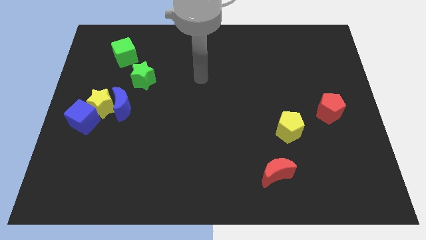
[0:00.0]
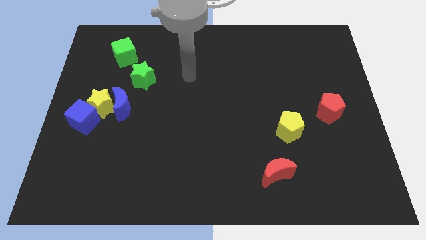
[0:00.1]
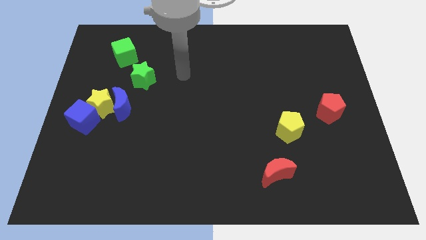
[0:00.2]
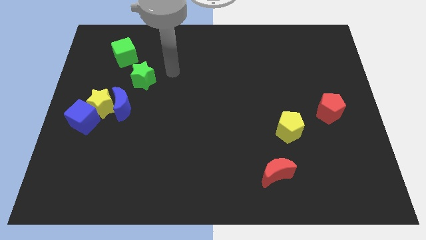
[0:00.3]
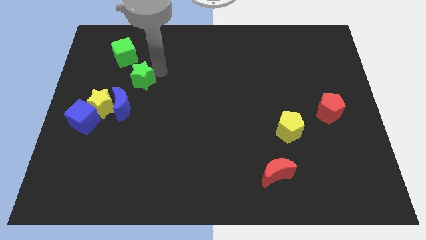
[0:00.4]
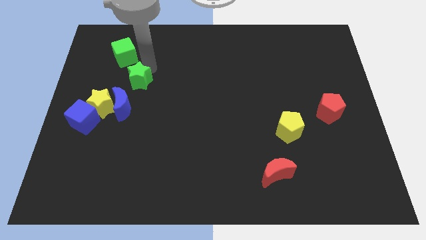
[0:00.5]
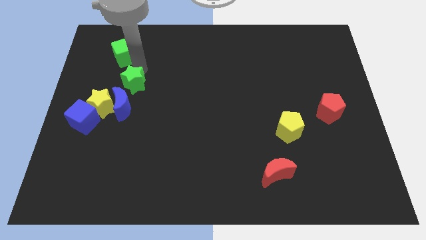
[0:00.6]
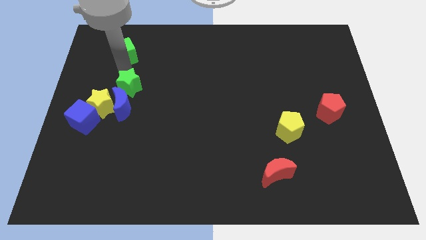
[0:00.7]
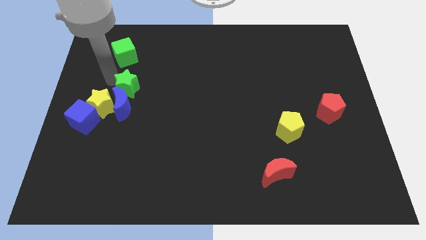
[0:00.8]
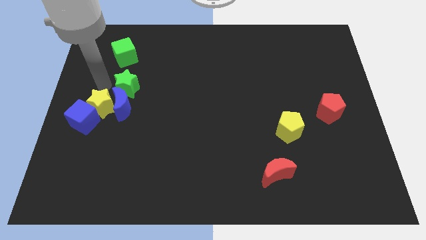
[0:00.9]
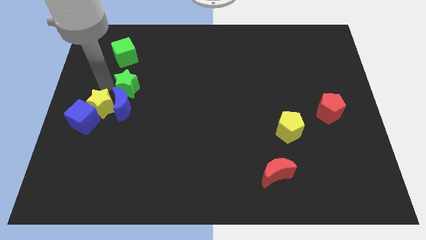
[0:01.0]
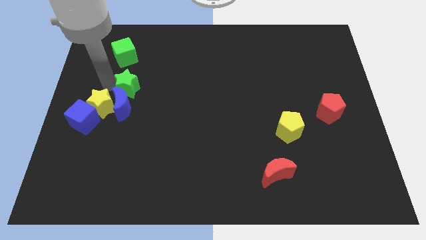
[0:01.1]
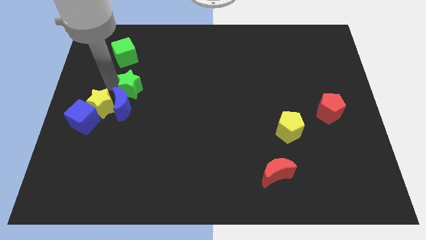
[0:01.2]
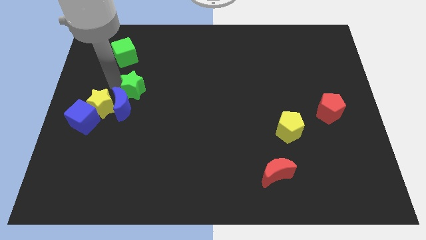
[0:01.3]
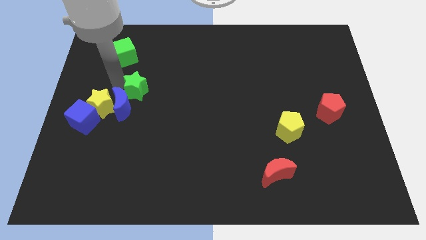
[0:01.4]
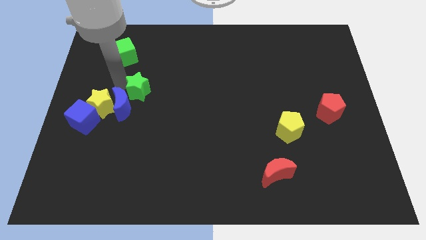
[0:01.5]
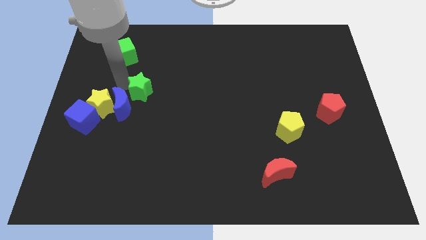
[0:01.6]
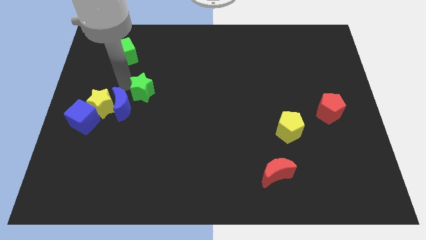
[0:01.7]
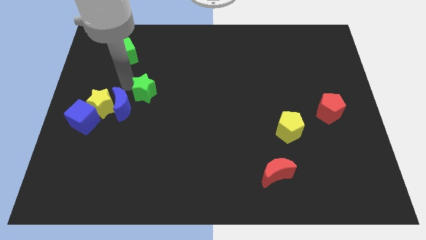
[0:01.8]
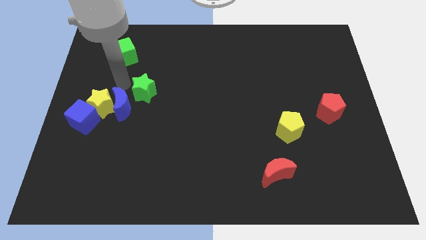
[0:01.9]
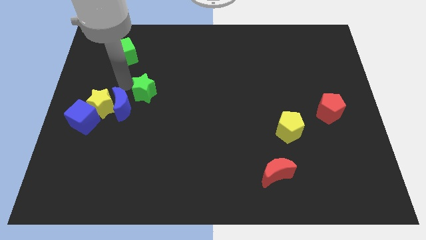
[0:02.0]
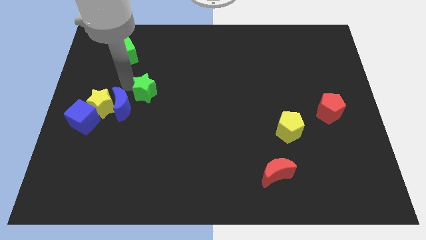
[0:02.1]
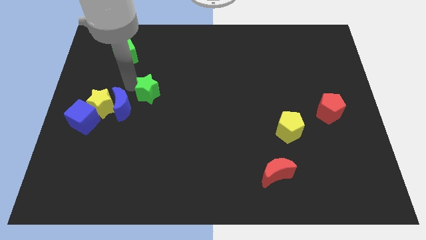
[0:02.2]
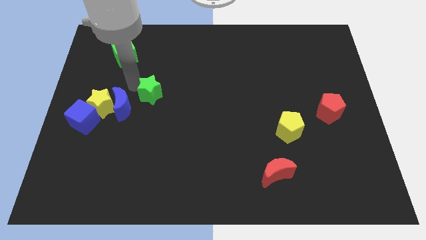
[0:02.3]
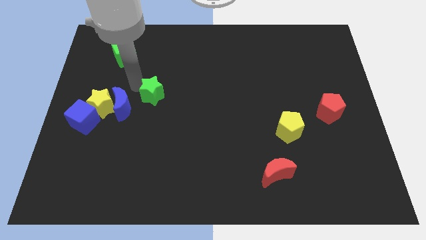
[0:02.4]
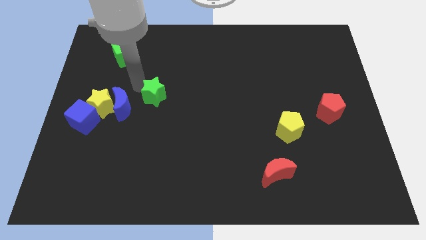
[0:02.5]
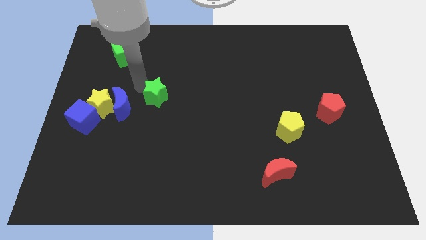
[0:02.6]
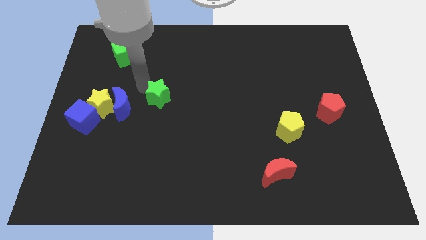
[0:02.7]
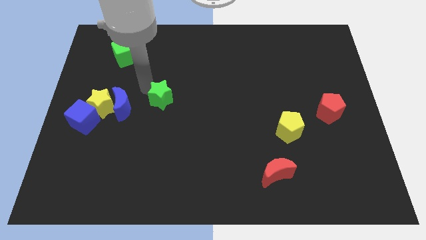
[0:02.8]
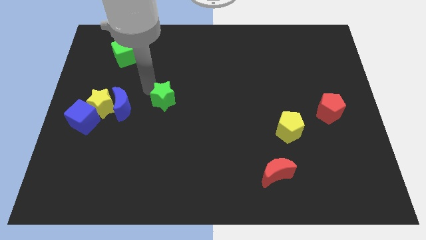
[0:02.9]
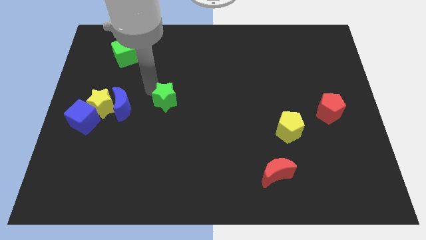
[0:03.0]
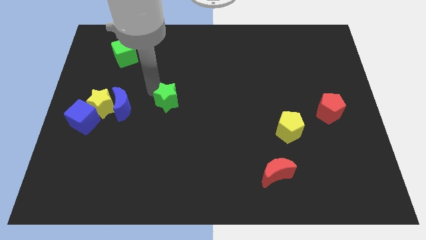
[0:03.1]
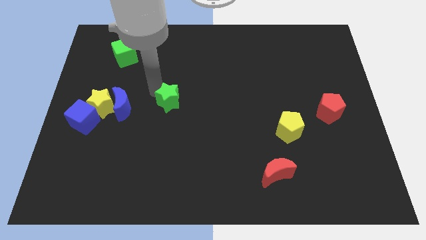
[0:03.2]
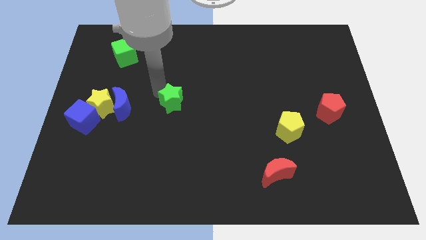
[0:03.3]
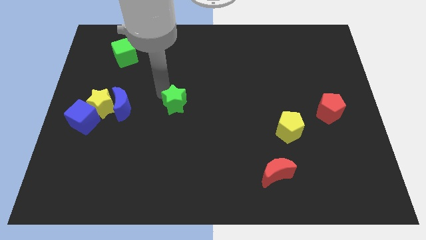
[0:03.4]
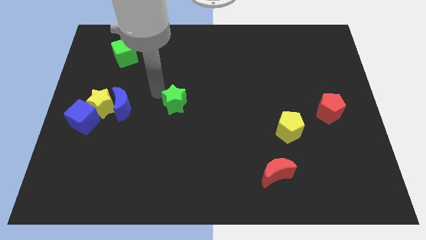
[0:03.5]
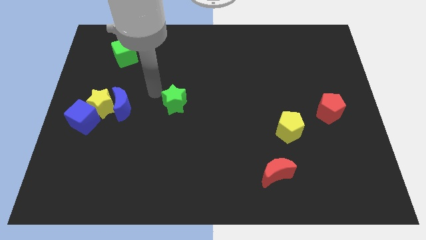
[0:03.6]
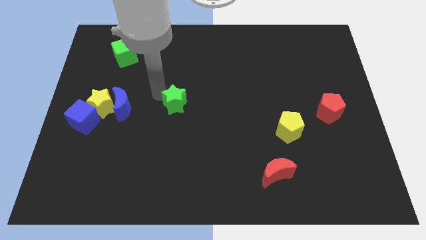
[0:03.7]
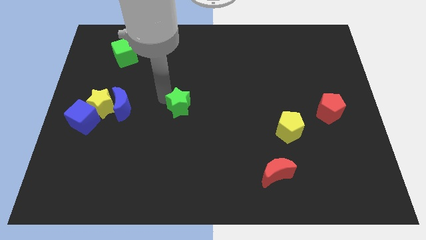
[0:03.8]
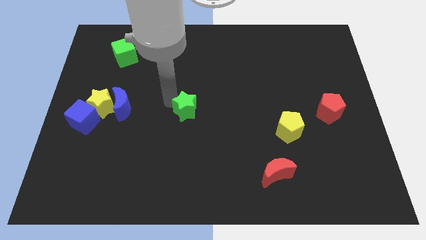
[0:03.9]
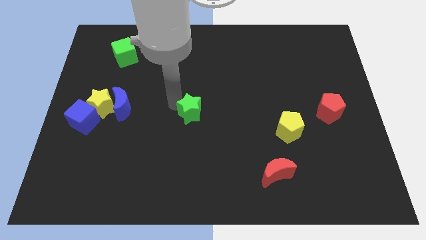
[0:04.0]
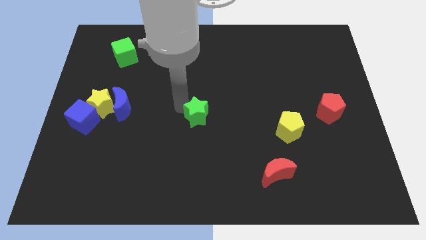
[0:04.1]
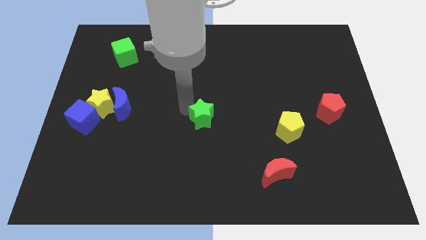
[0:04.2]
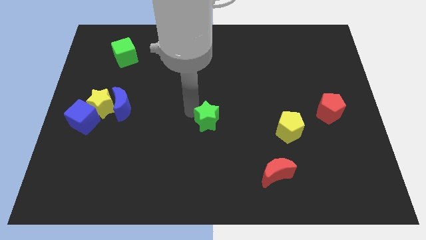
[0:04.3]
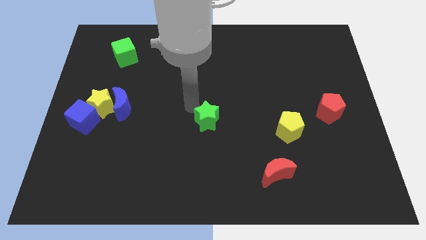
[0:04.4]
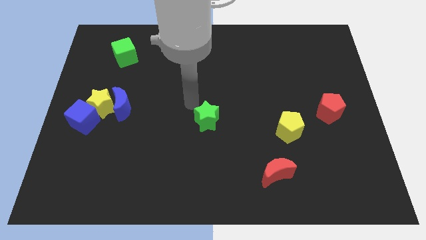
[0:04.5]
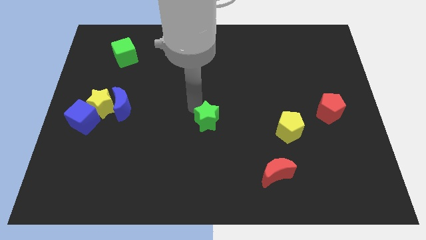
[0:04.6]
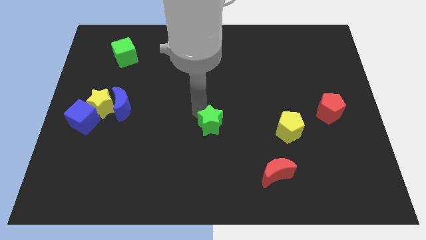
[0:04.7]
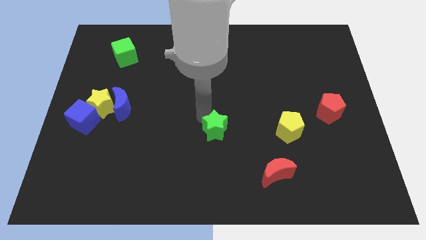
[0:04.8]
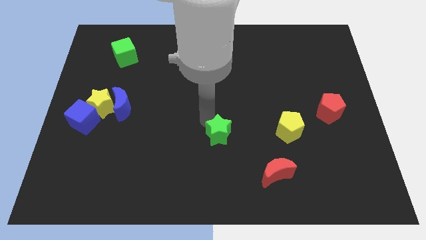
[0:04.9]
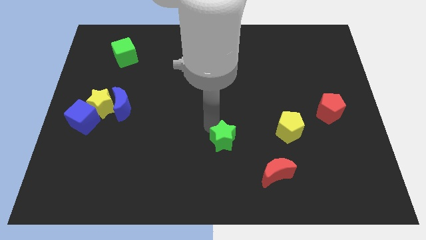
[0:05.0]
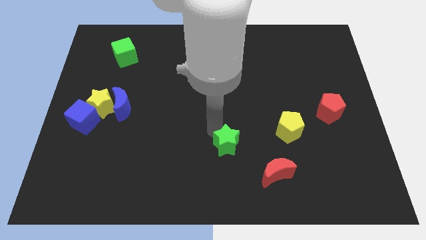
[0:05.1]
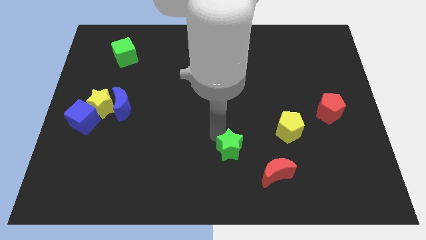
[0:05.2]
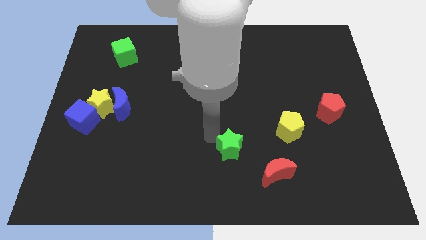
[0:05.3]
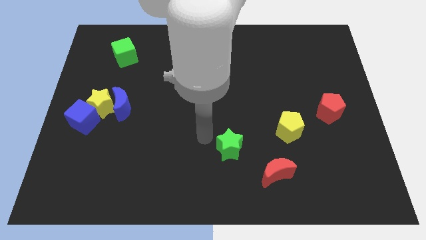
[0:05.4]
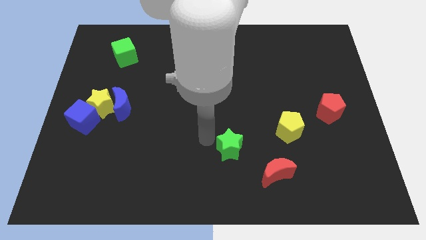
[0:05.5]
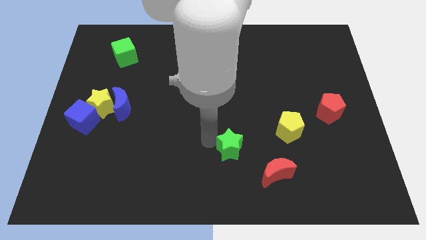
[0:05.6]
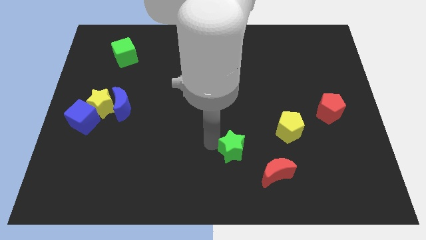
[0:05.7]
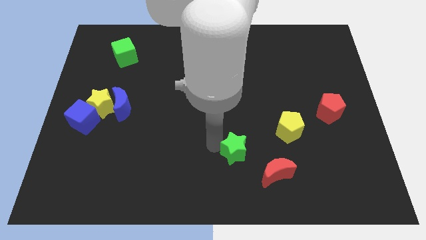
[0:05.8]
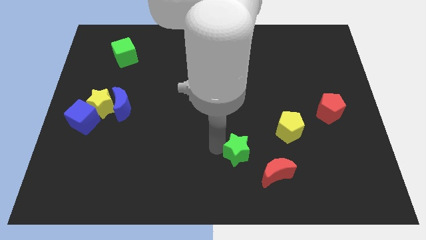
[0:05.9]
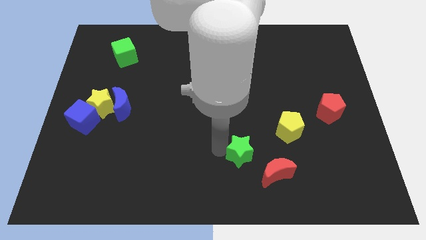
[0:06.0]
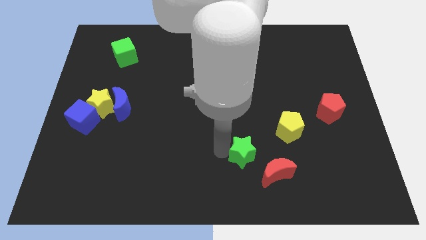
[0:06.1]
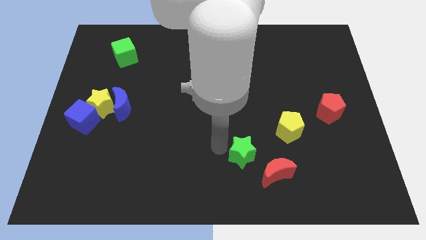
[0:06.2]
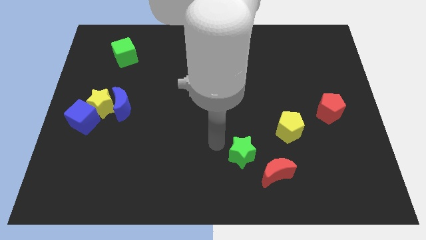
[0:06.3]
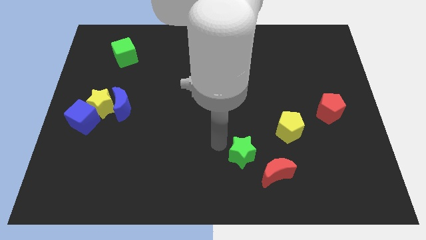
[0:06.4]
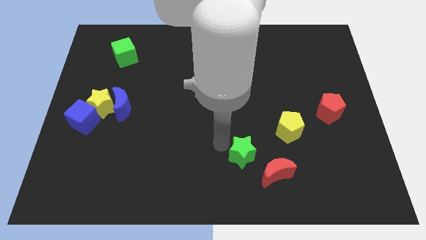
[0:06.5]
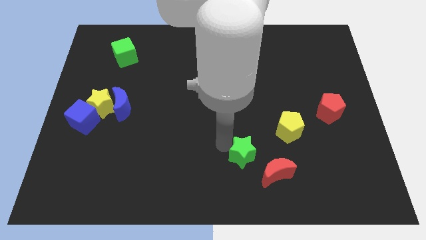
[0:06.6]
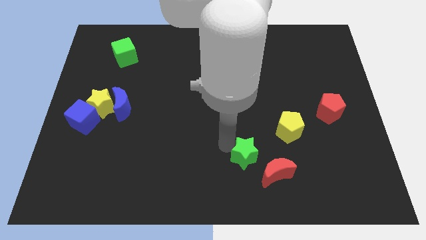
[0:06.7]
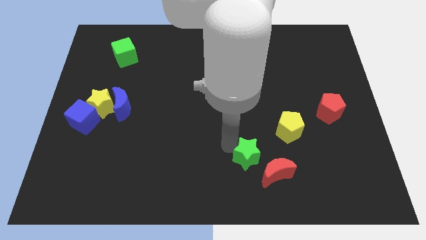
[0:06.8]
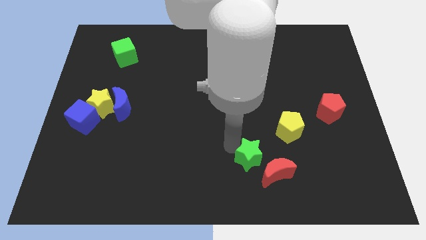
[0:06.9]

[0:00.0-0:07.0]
put the green star close to the red moon

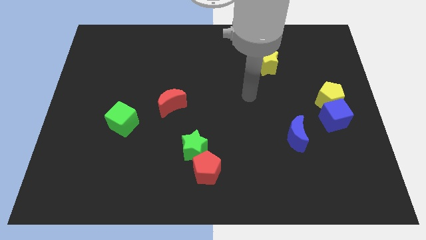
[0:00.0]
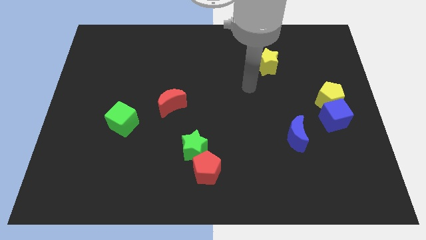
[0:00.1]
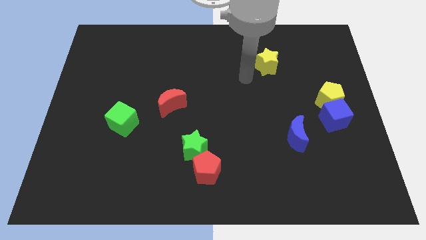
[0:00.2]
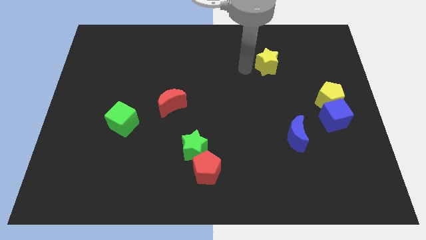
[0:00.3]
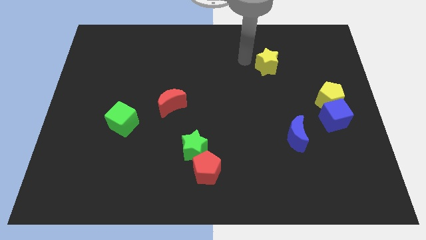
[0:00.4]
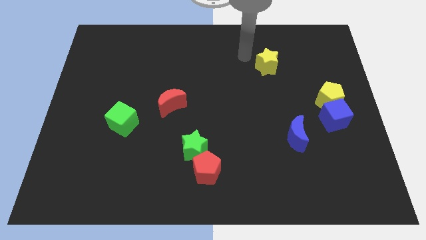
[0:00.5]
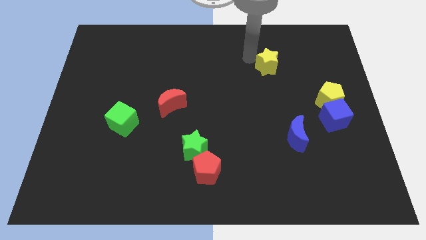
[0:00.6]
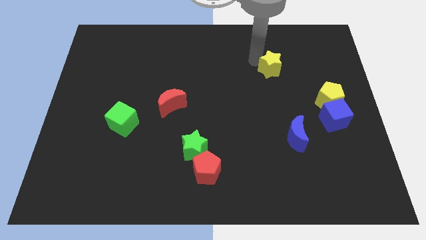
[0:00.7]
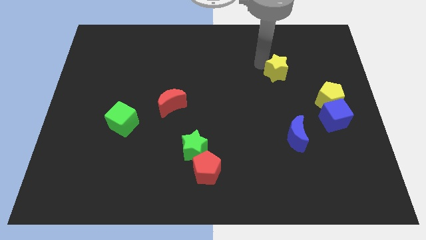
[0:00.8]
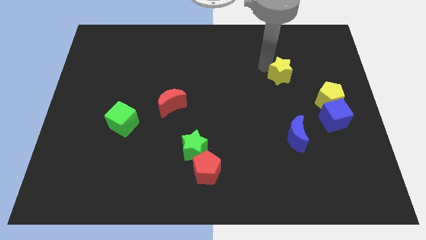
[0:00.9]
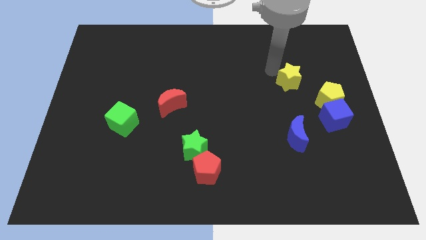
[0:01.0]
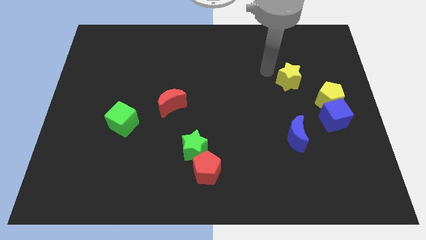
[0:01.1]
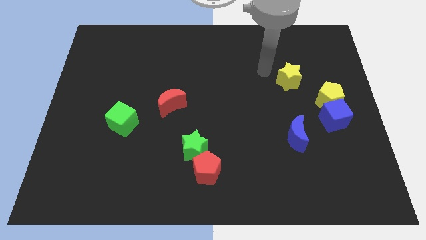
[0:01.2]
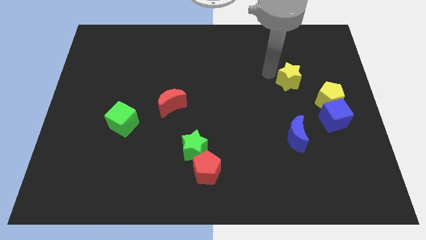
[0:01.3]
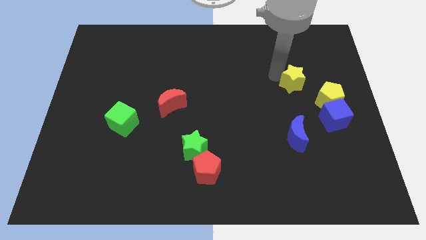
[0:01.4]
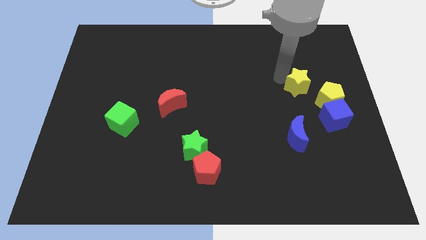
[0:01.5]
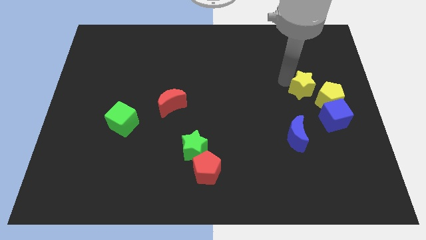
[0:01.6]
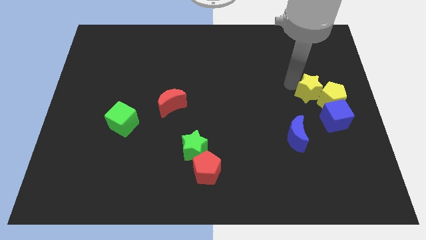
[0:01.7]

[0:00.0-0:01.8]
slide the yellow star next to the yellow pentagon
